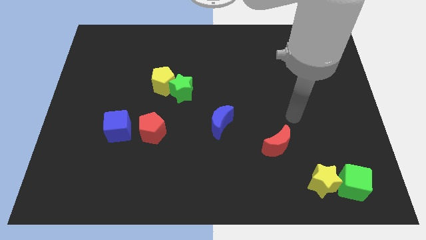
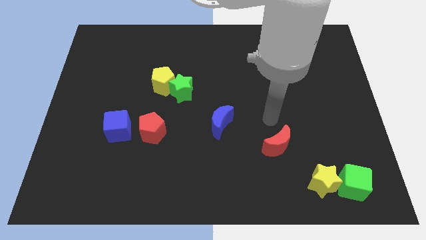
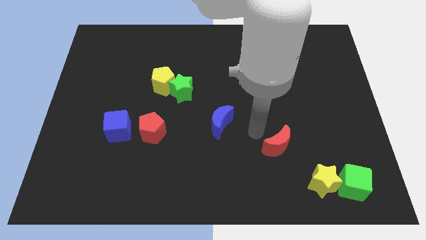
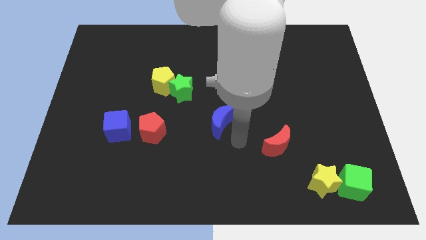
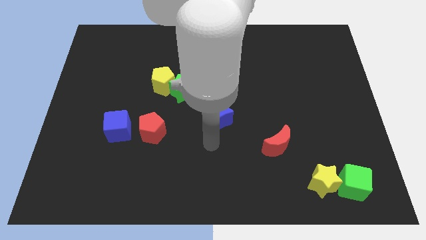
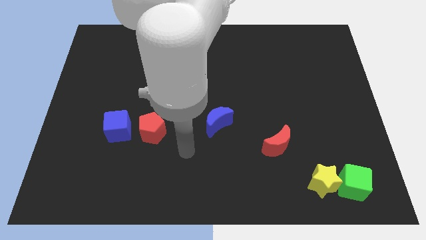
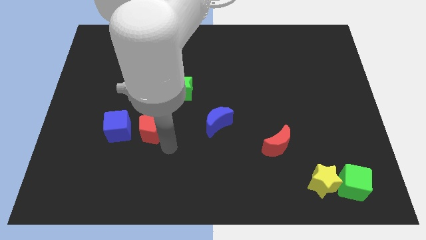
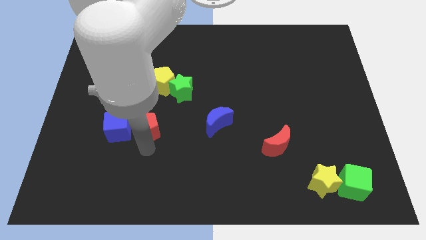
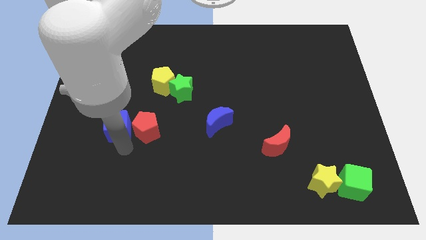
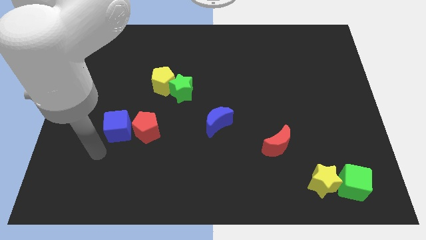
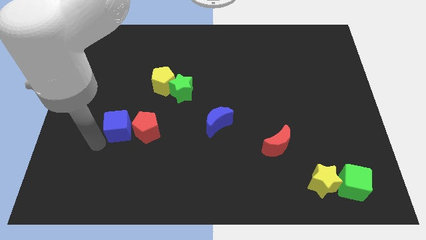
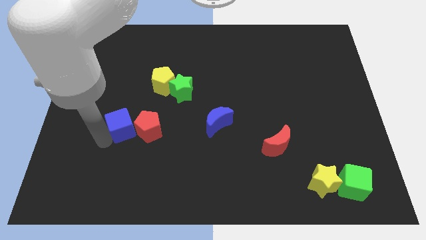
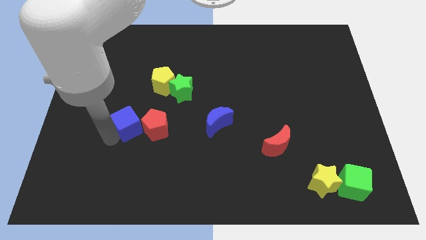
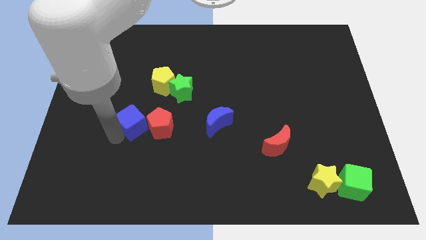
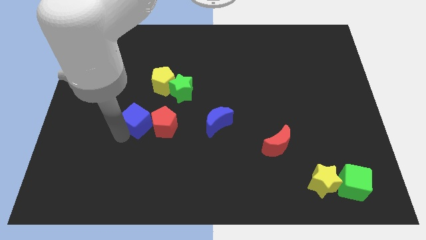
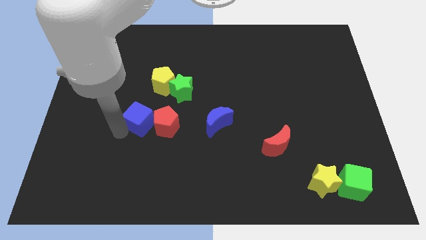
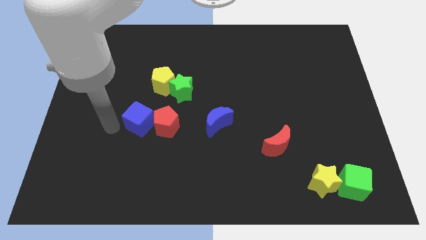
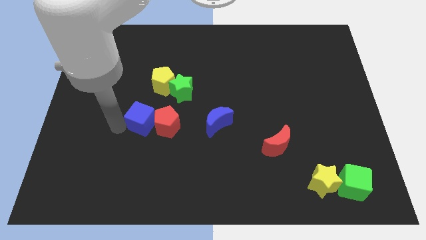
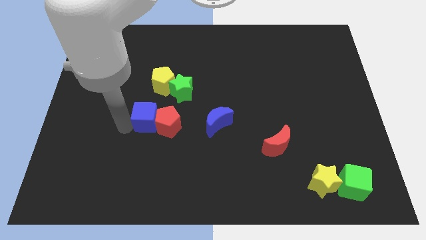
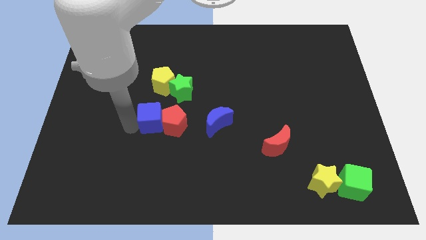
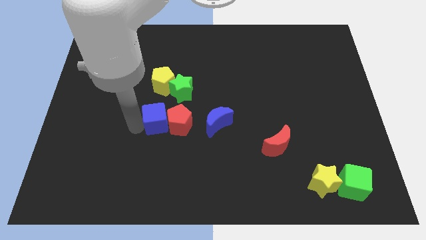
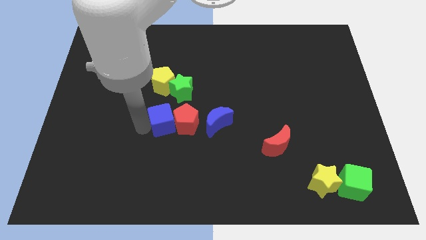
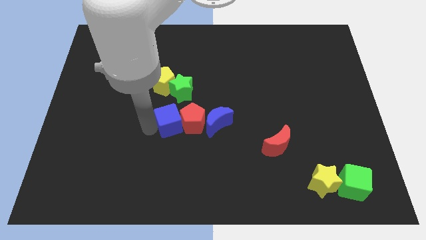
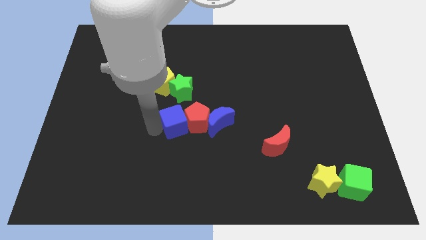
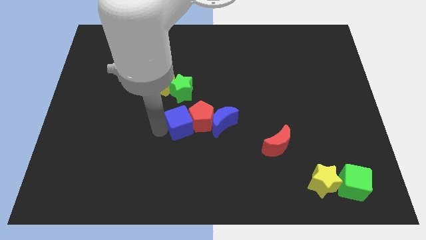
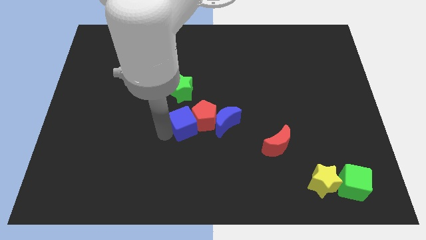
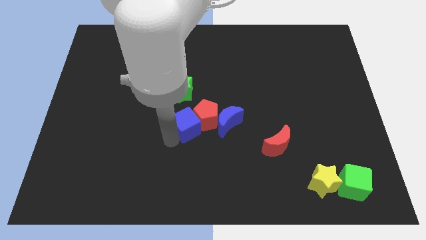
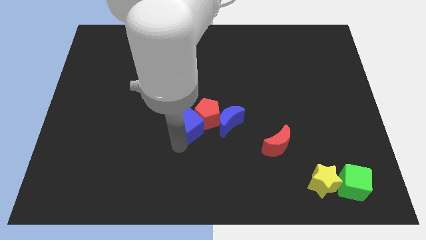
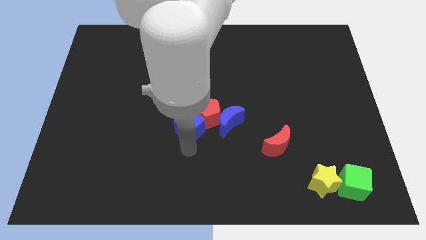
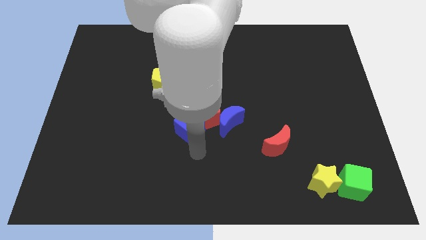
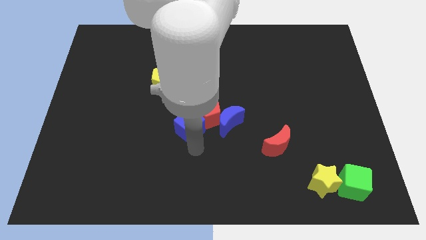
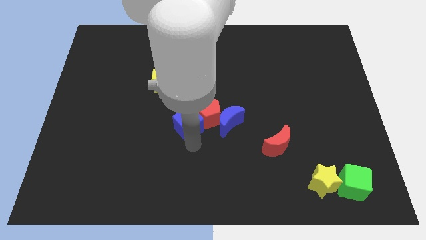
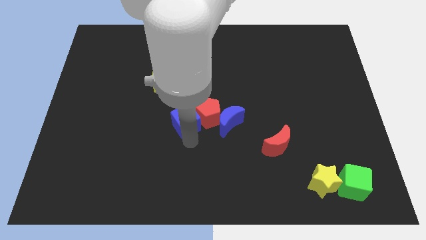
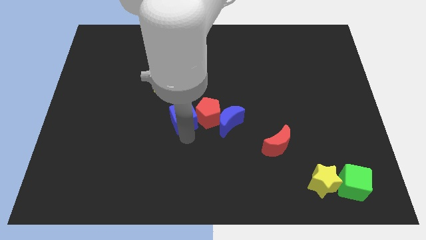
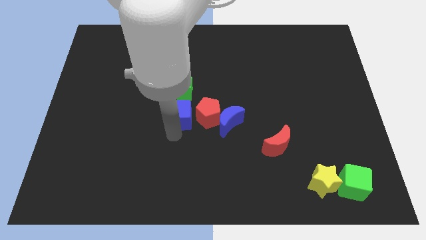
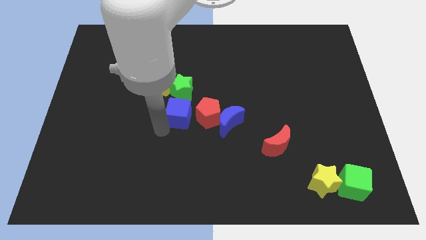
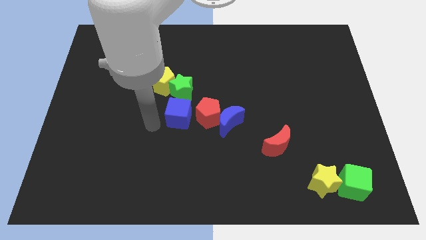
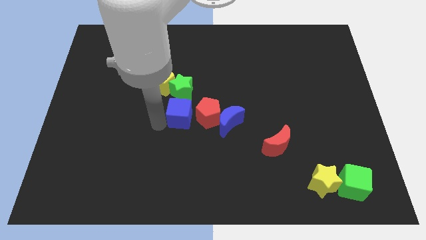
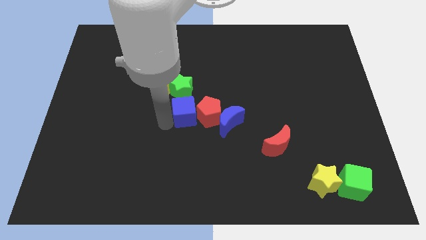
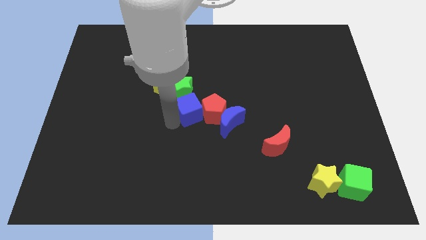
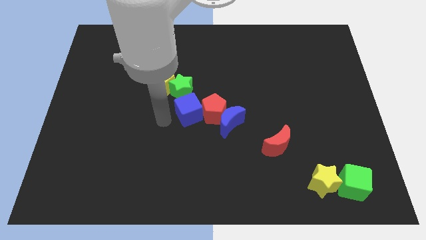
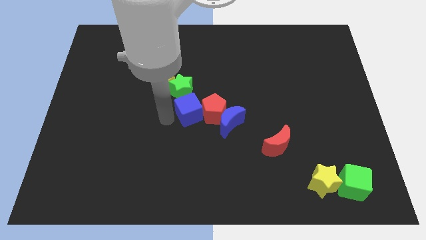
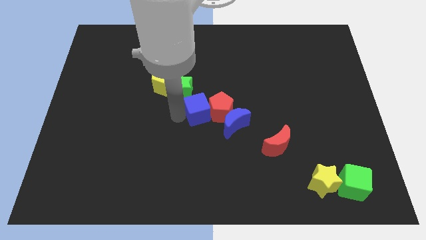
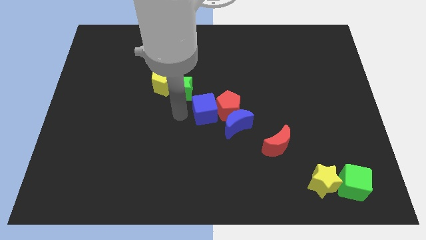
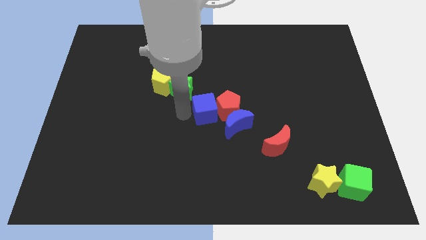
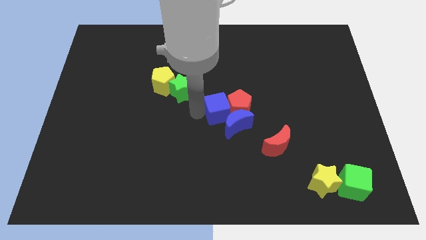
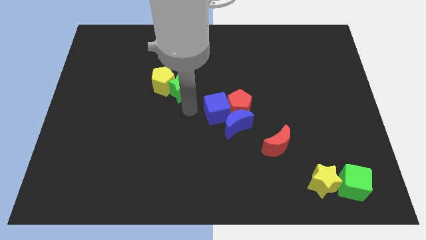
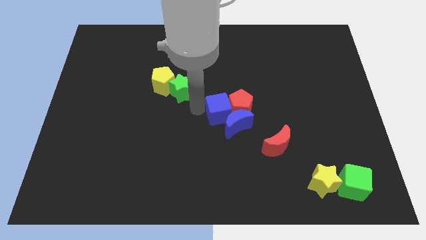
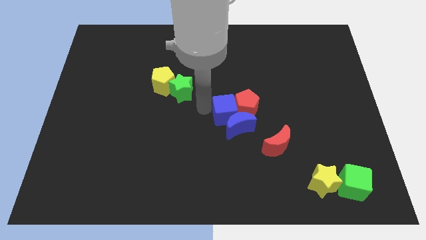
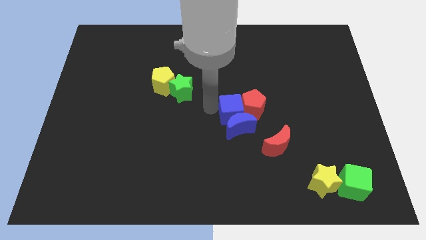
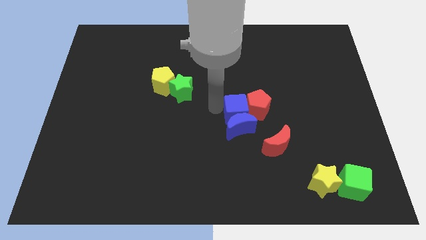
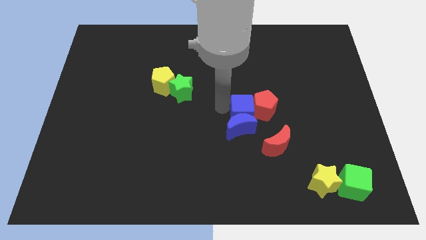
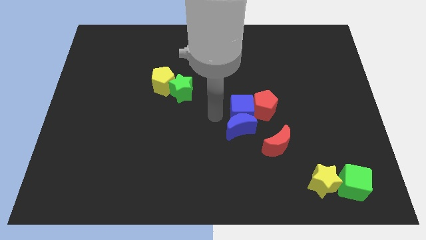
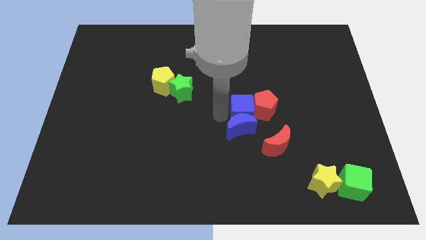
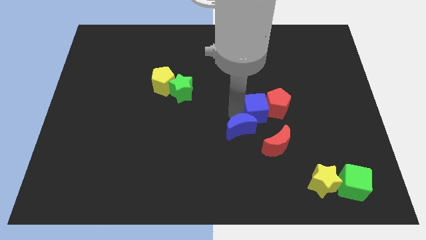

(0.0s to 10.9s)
push the blue cube to the top side of the red moon

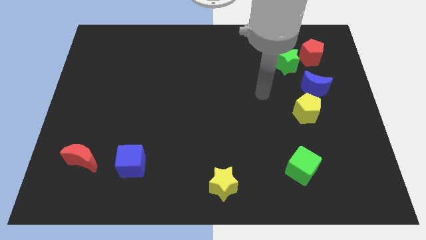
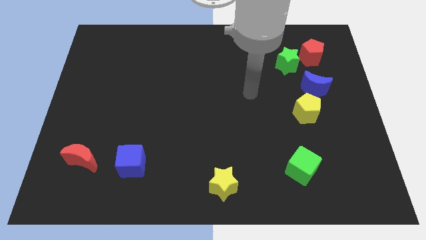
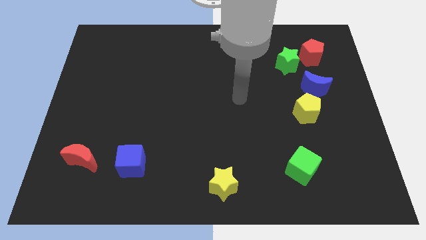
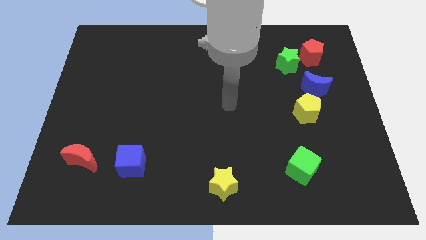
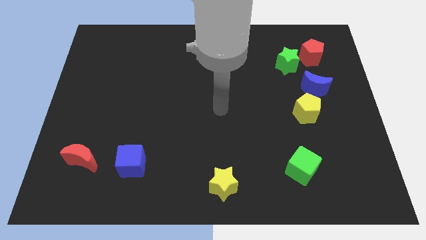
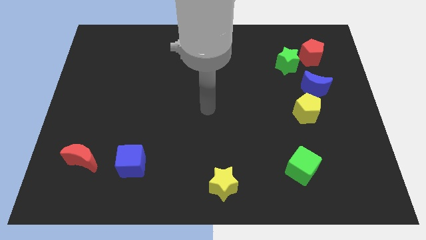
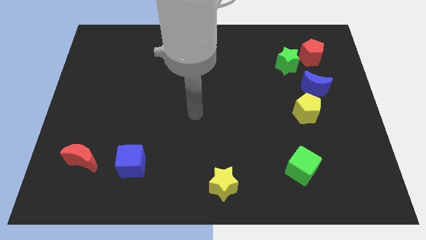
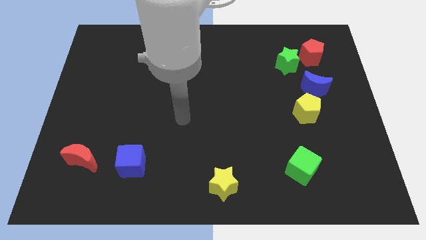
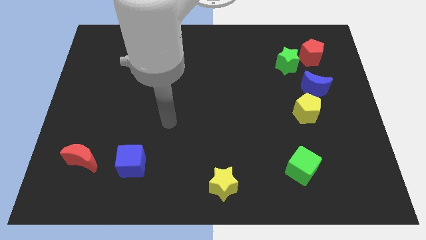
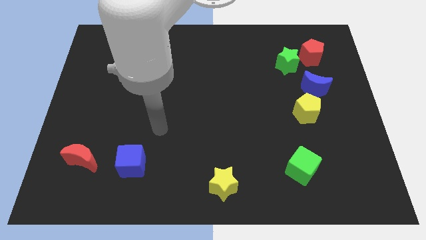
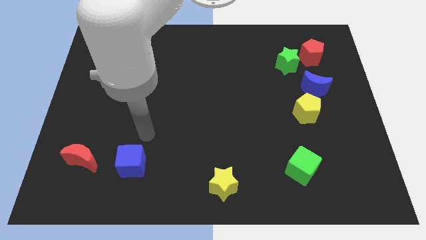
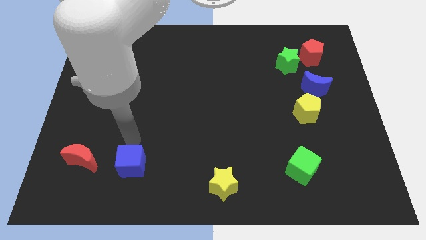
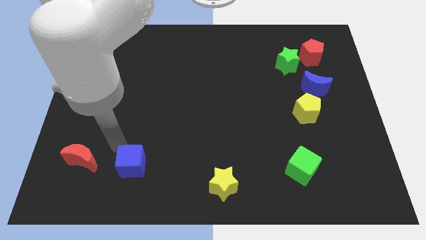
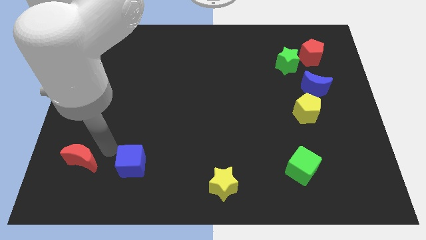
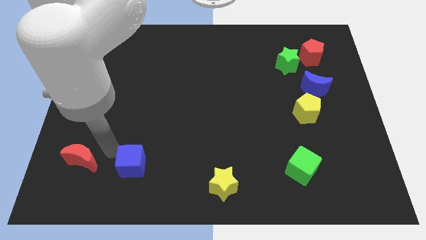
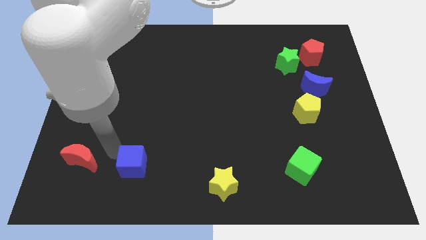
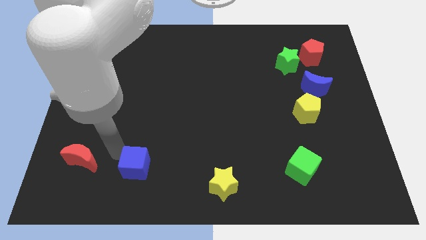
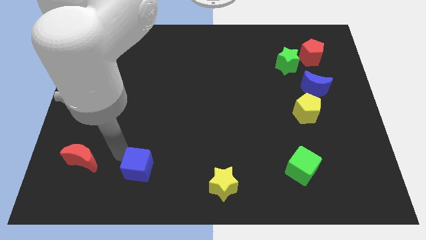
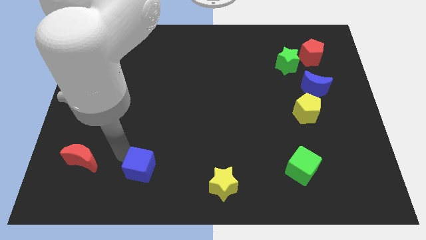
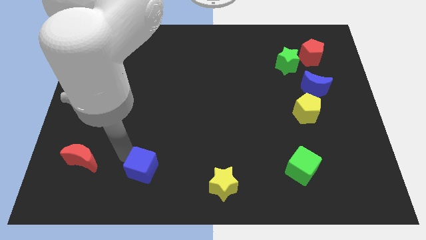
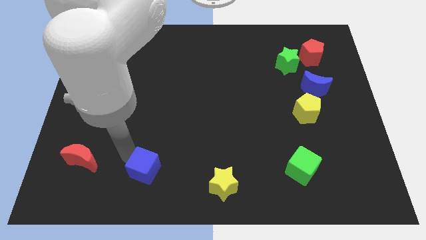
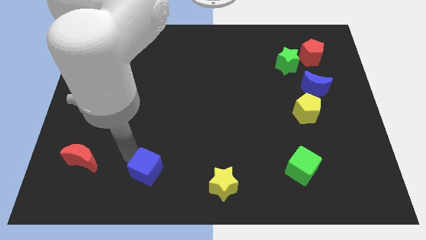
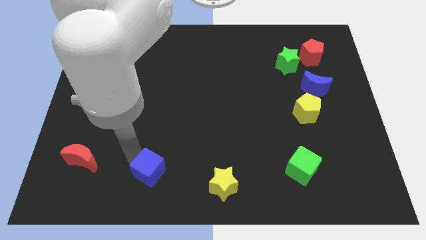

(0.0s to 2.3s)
move the blue cube left of the yellow star
